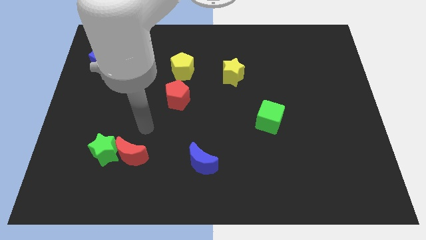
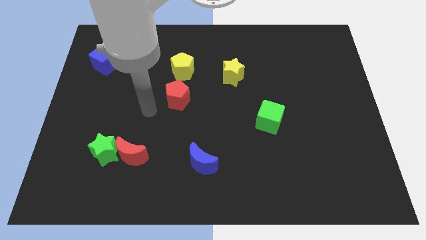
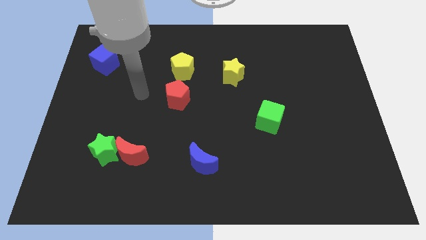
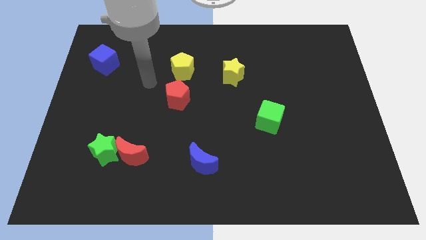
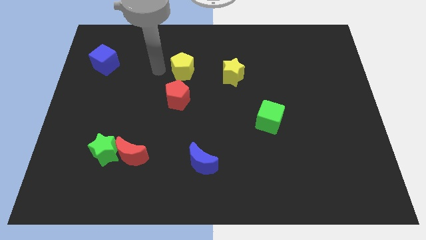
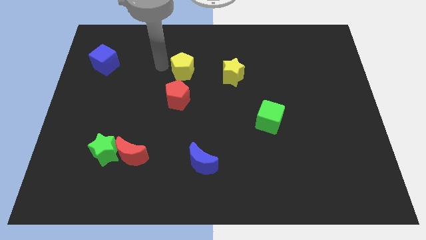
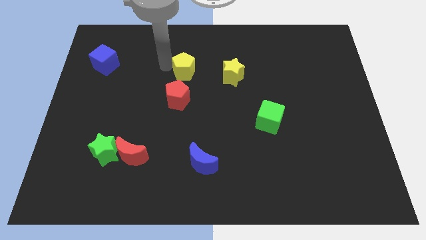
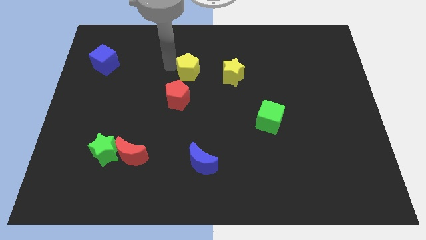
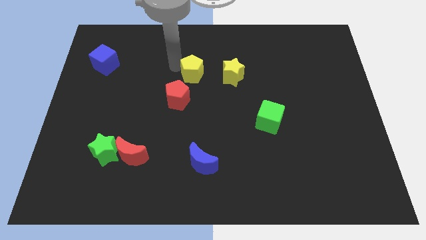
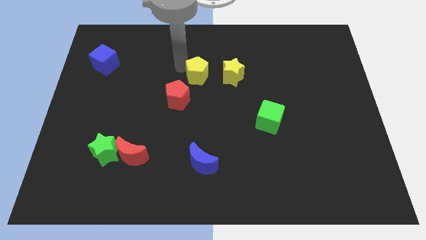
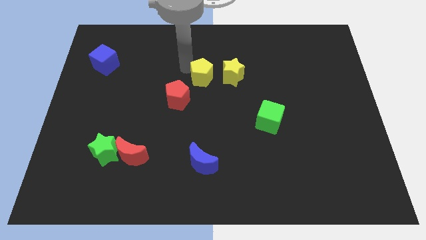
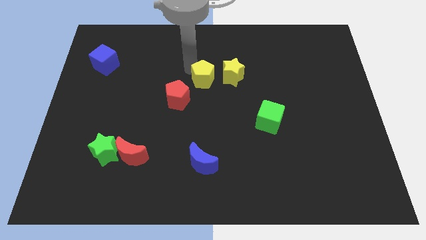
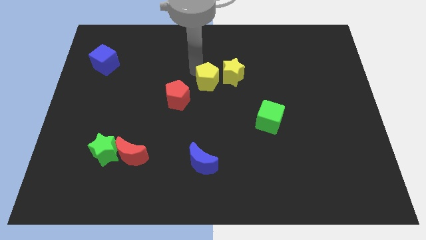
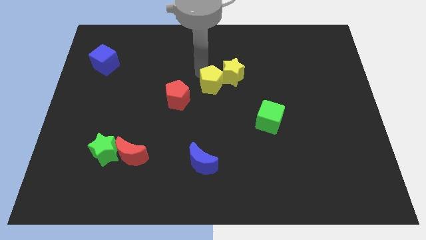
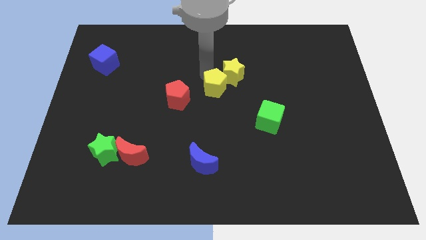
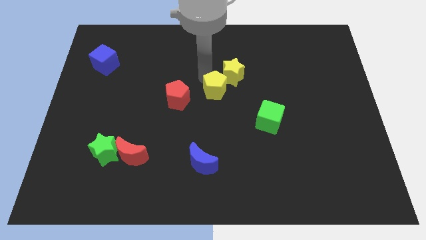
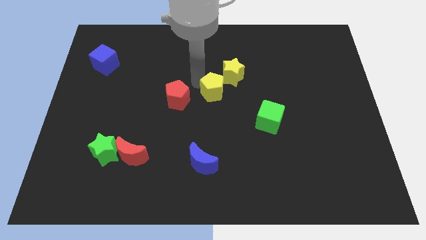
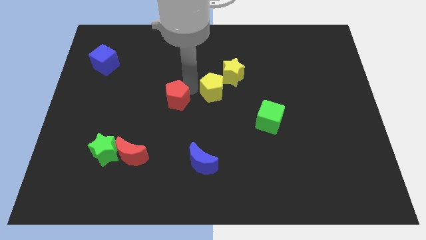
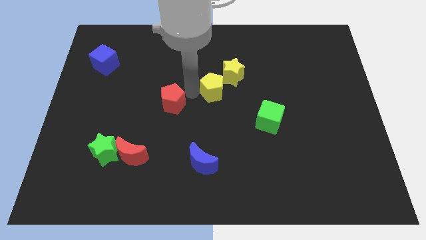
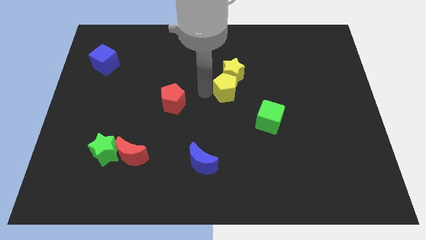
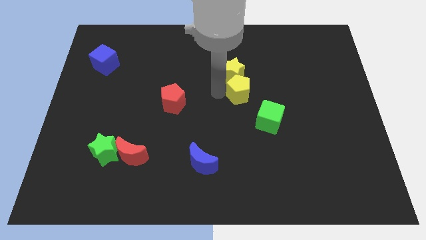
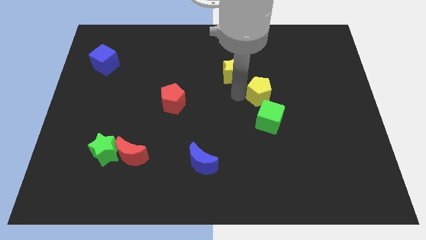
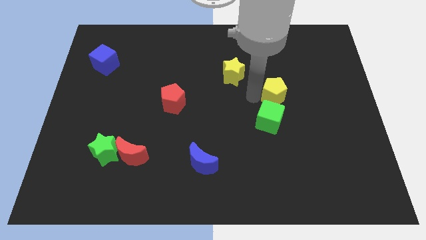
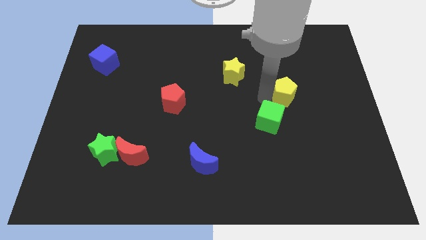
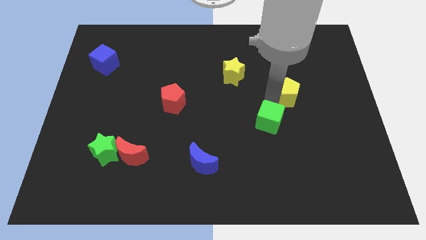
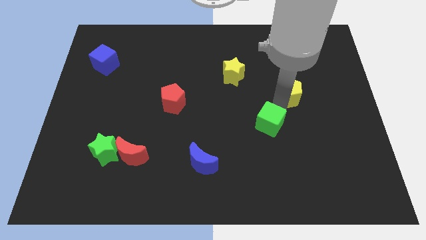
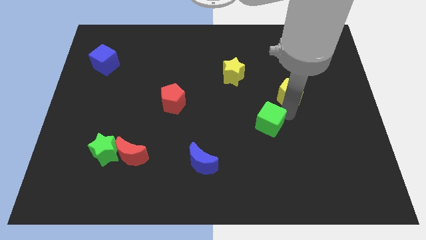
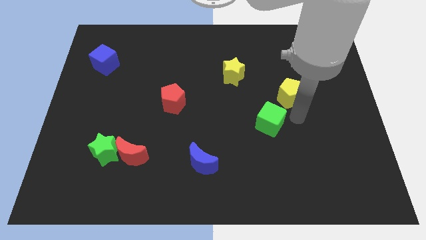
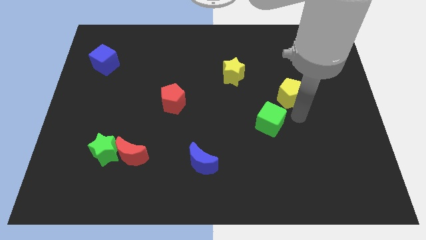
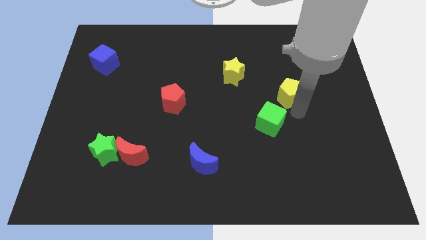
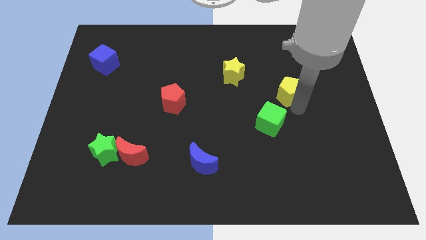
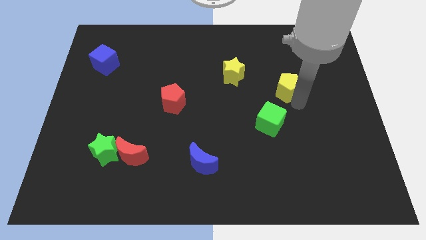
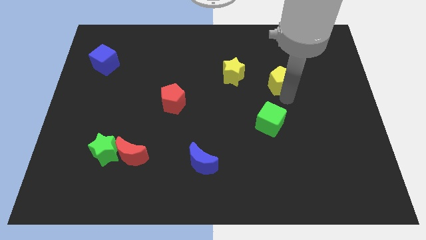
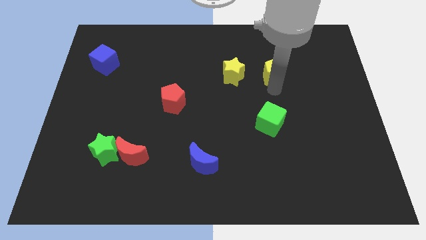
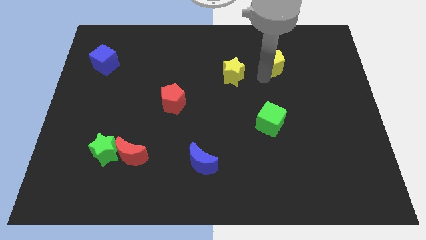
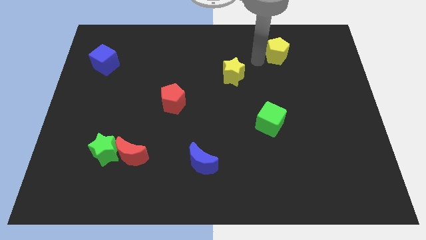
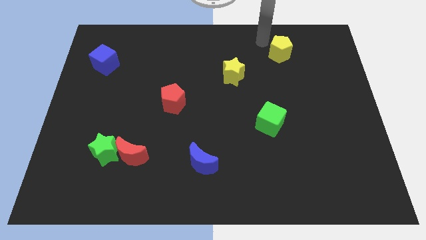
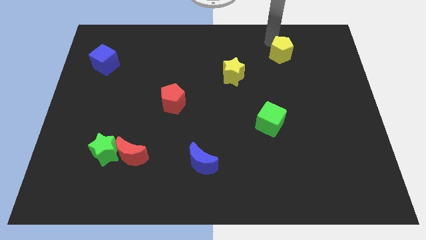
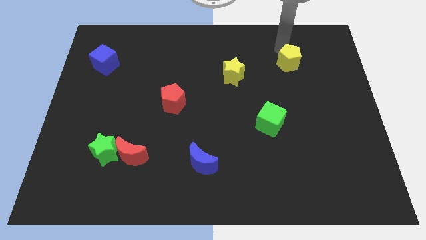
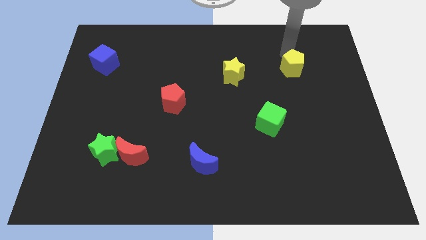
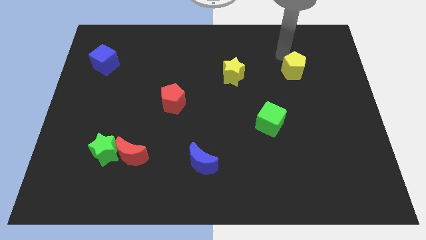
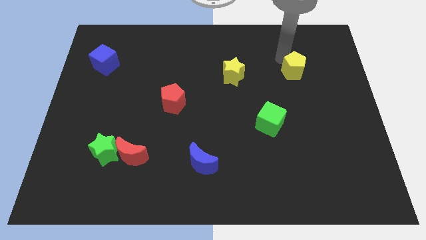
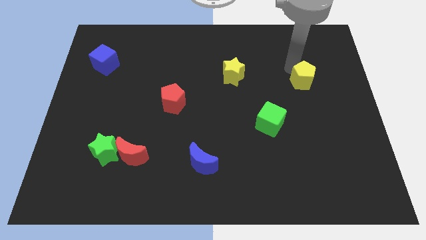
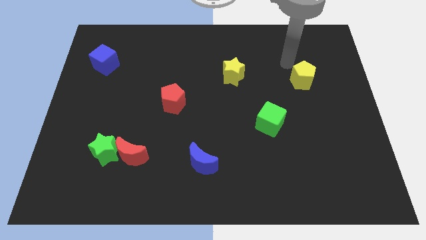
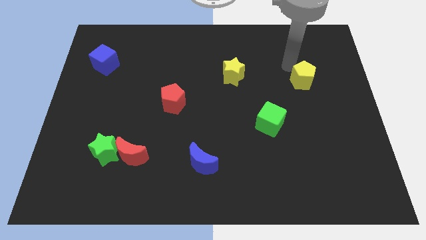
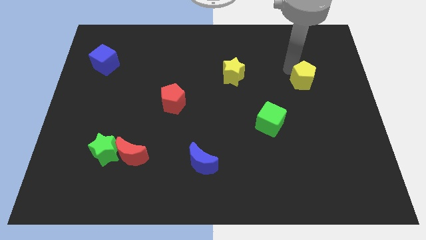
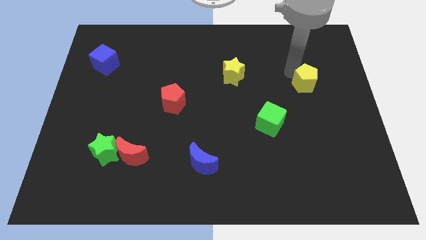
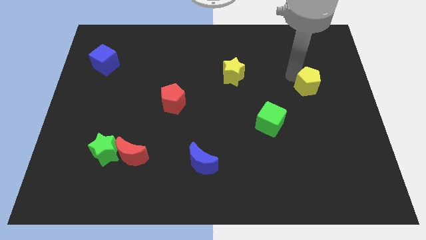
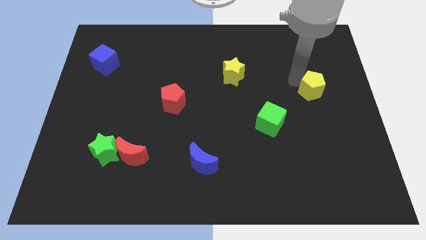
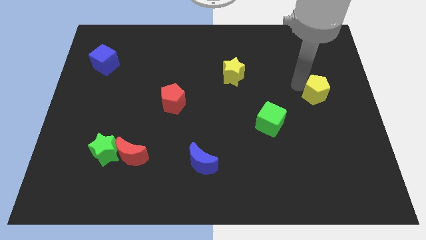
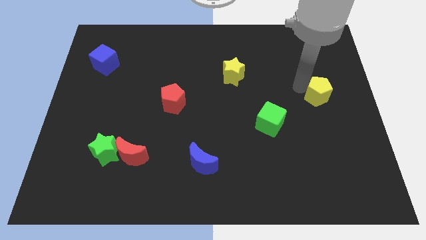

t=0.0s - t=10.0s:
push the yellow pentagon to the right side of the board

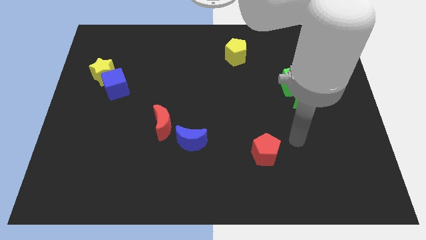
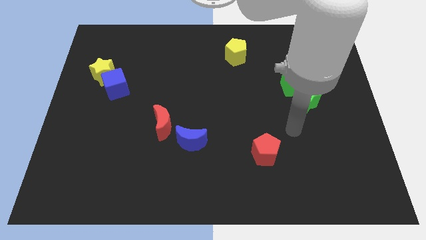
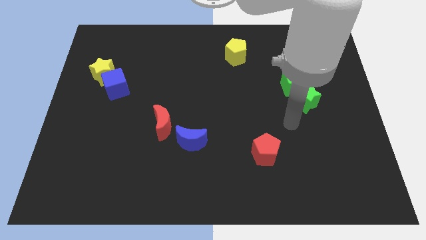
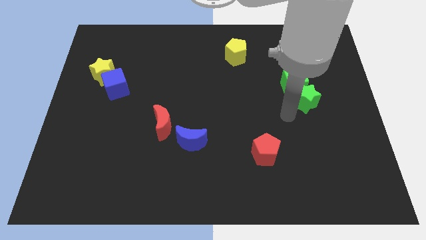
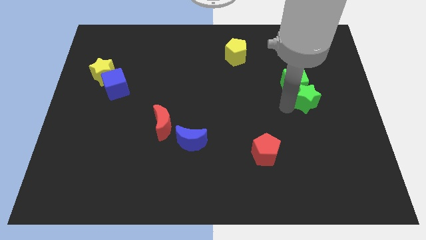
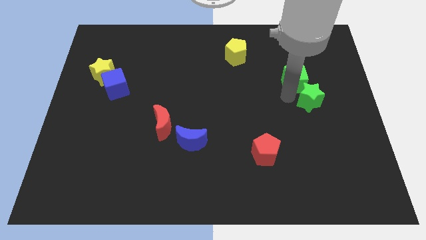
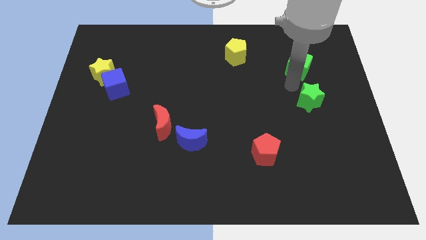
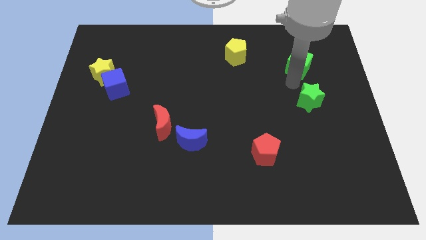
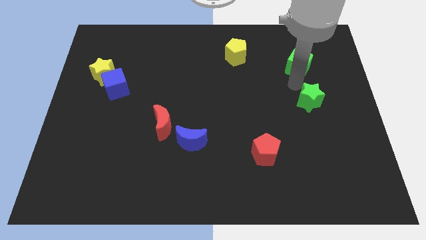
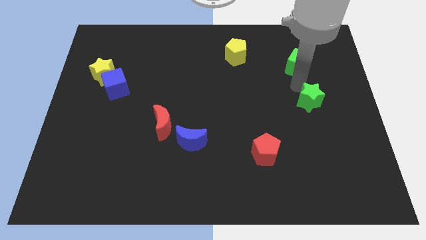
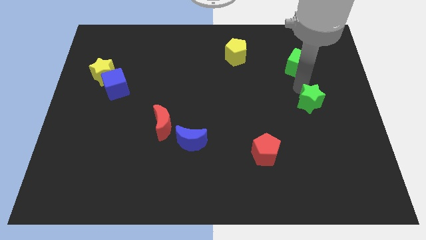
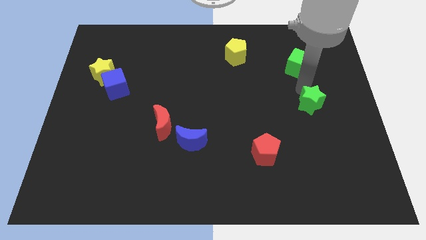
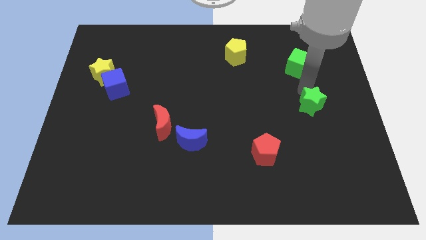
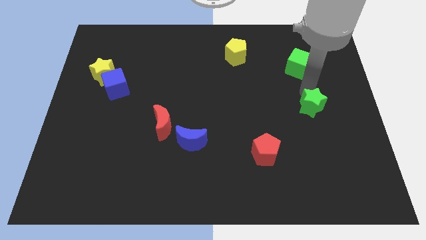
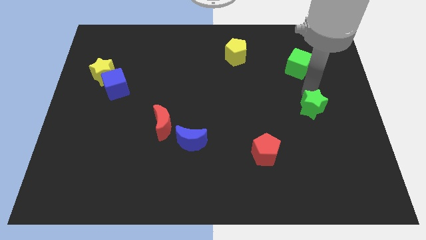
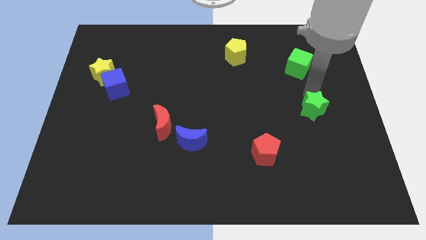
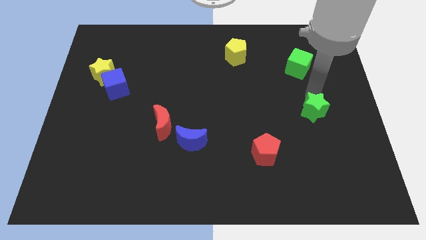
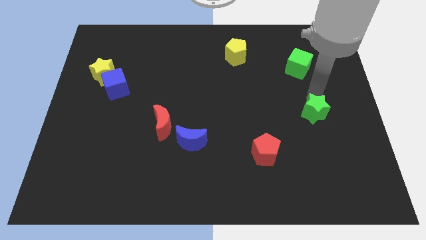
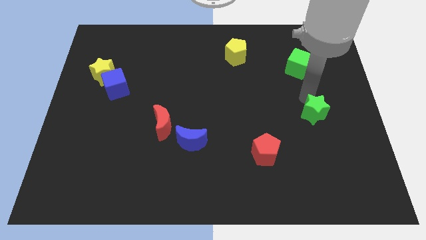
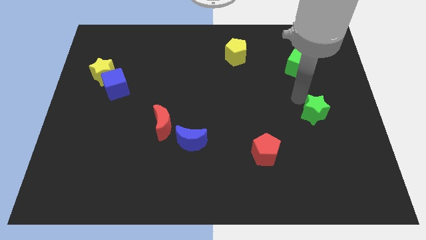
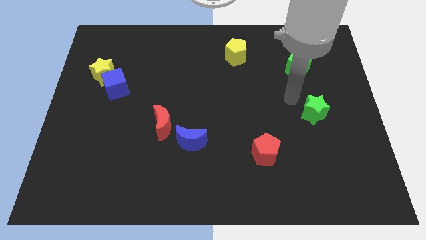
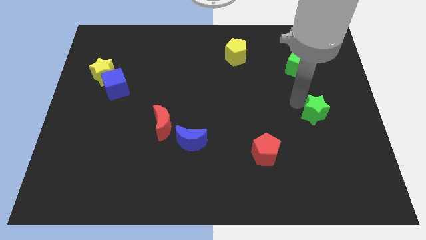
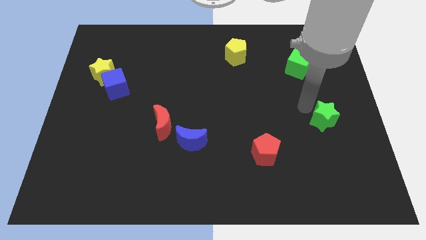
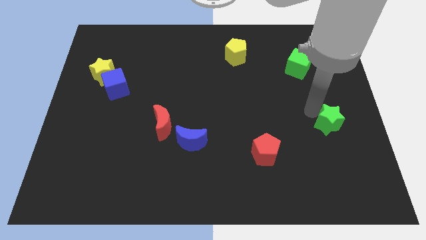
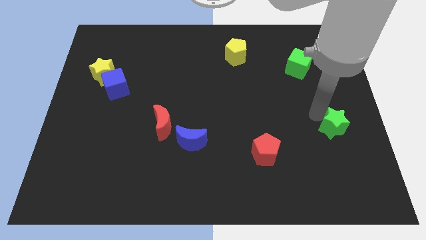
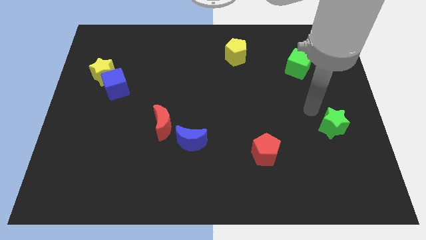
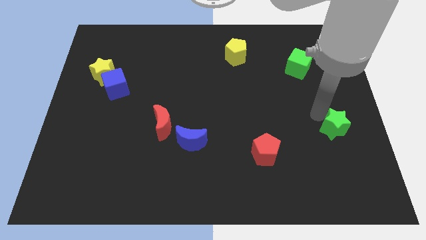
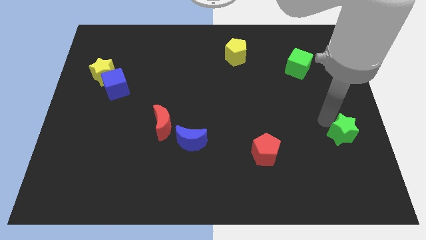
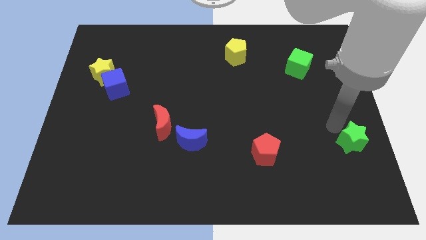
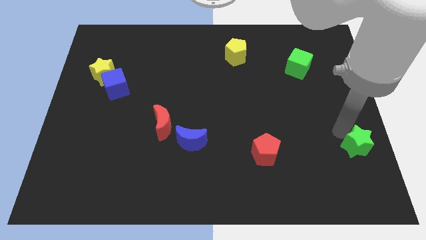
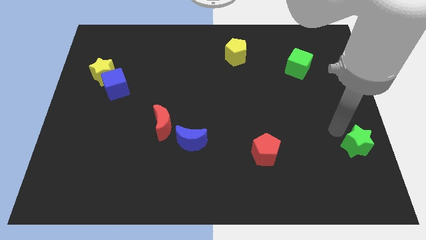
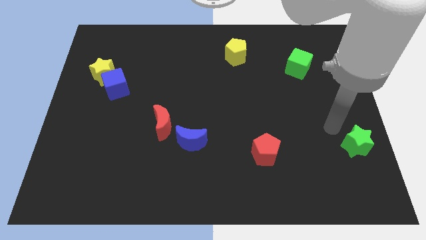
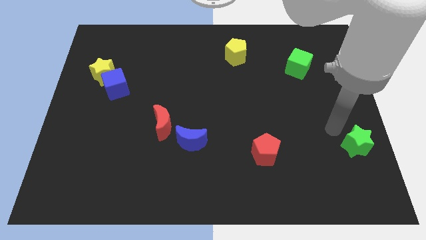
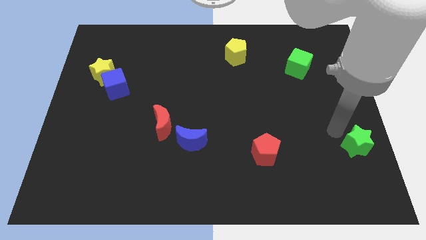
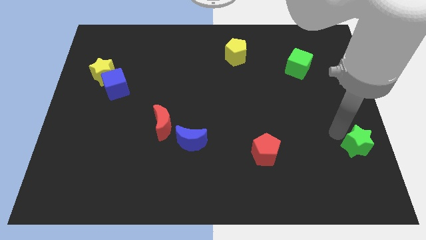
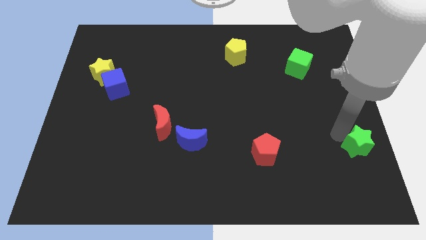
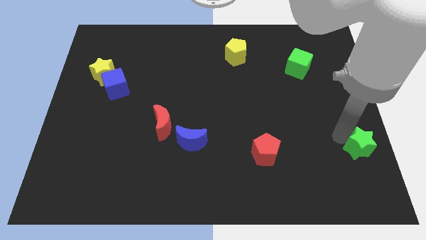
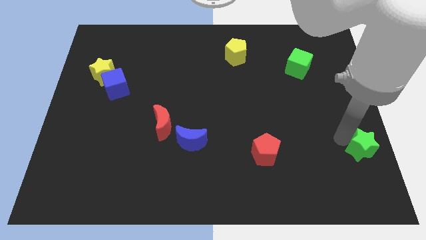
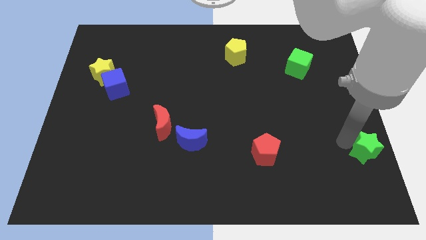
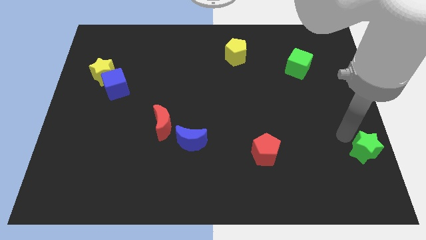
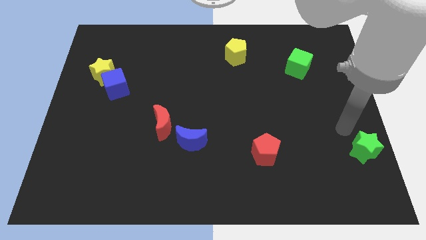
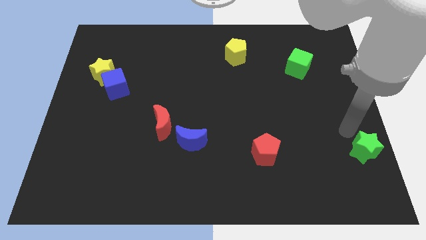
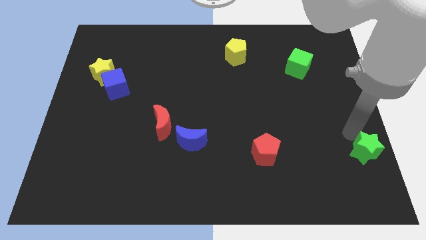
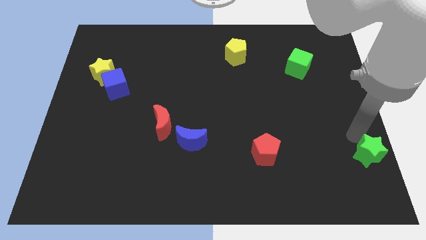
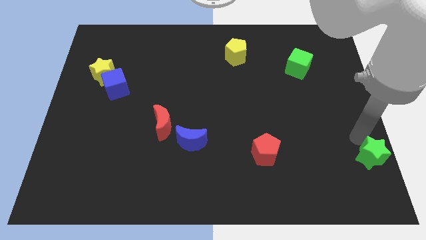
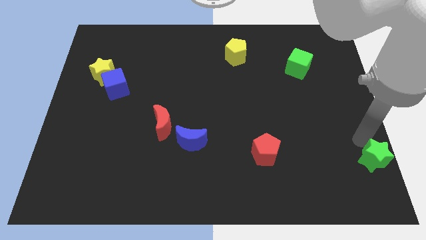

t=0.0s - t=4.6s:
move the green star to the bottom right corner
